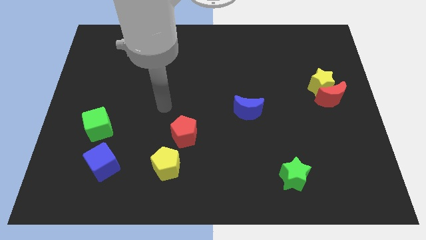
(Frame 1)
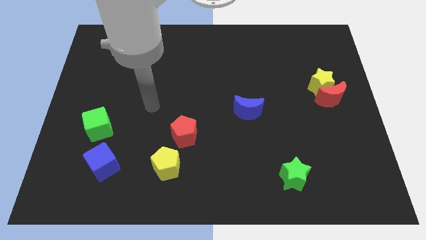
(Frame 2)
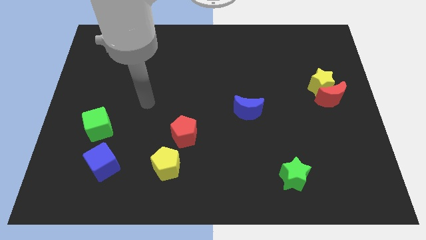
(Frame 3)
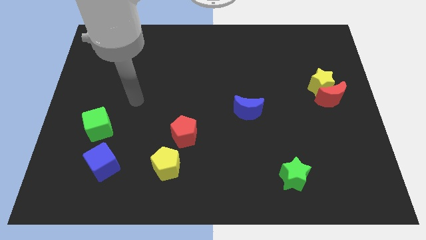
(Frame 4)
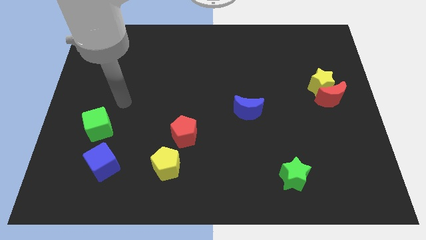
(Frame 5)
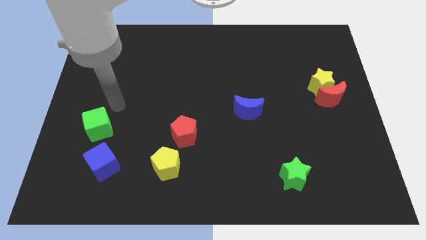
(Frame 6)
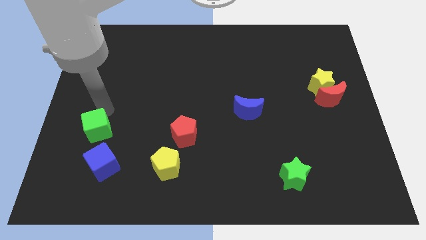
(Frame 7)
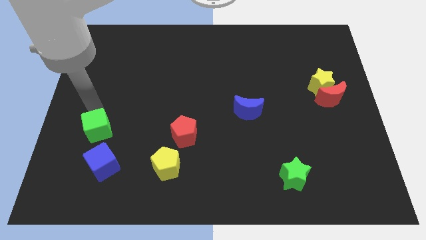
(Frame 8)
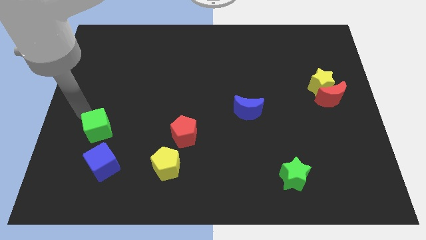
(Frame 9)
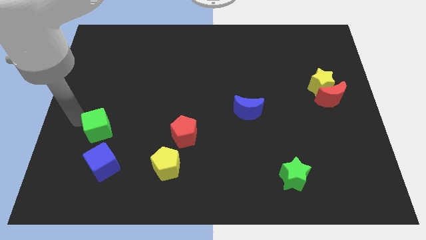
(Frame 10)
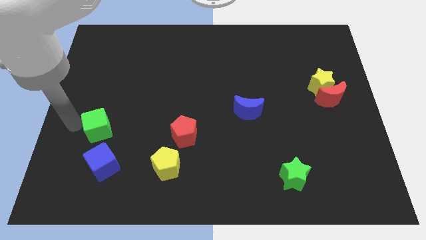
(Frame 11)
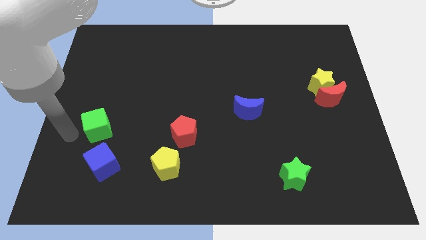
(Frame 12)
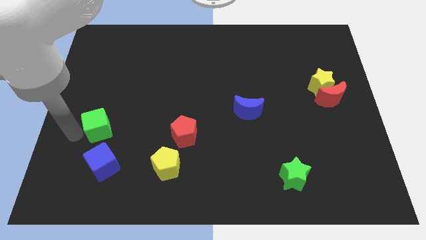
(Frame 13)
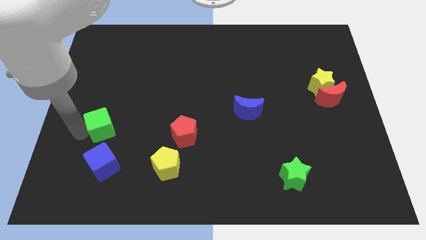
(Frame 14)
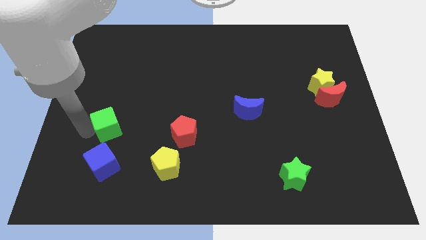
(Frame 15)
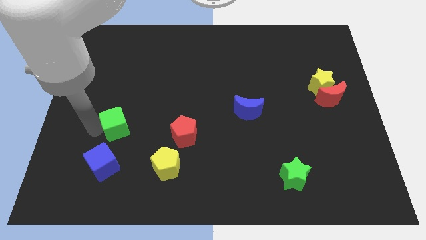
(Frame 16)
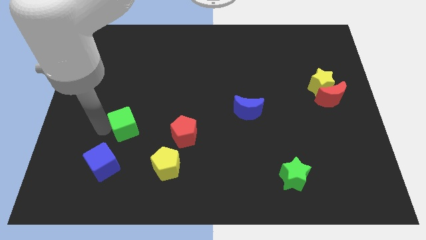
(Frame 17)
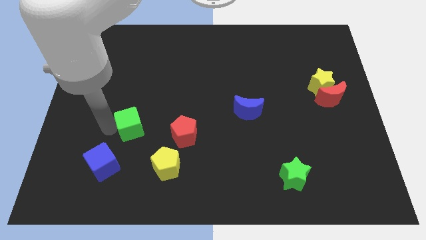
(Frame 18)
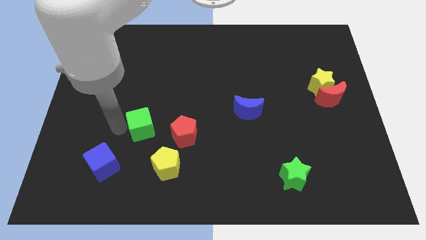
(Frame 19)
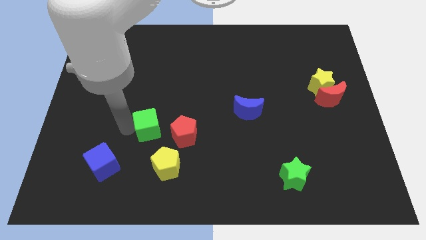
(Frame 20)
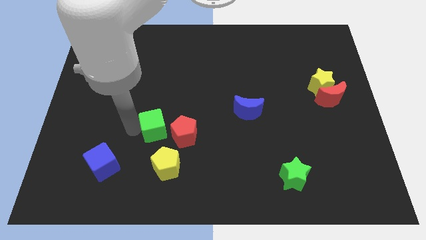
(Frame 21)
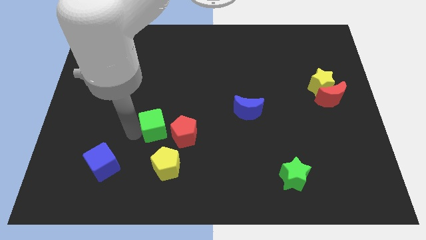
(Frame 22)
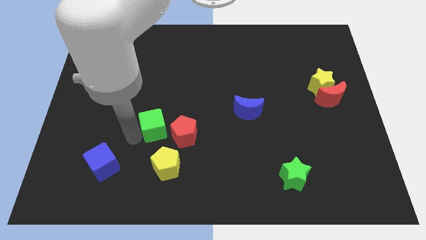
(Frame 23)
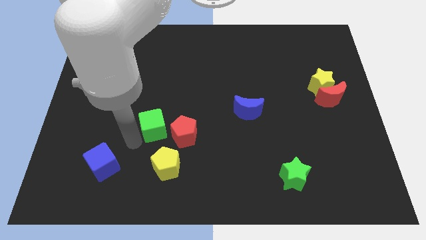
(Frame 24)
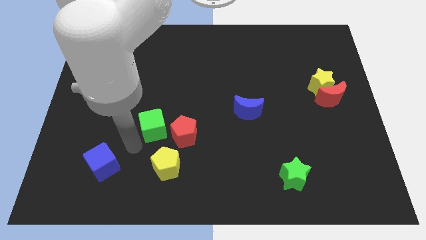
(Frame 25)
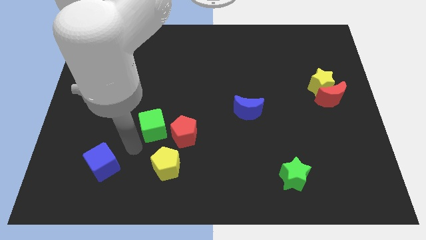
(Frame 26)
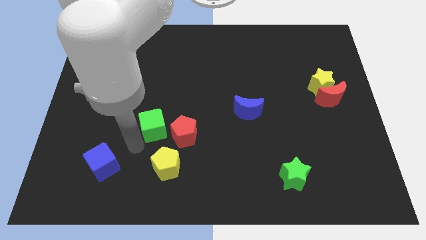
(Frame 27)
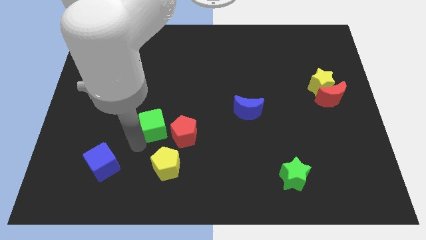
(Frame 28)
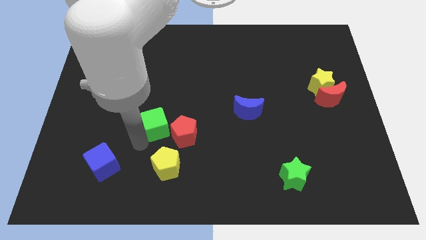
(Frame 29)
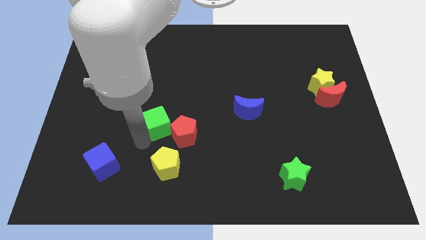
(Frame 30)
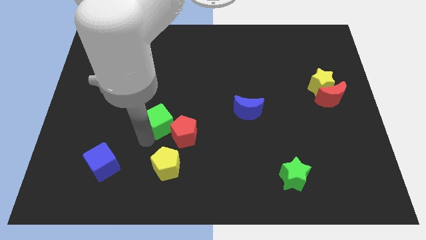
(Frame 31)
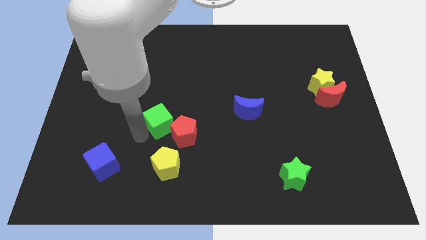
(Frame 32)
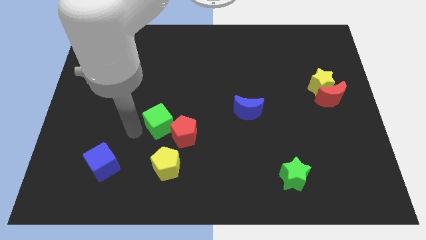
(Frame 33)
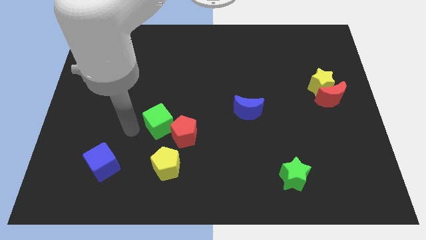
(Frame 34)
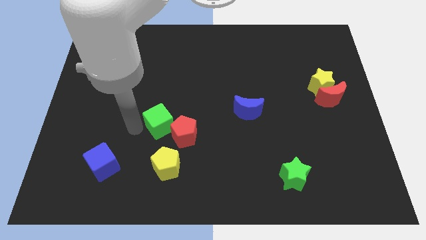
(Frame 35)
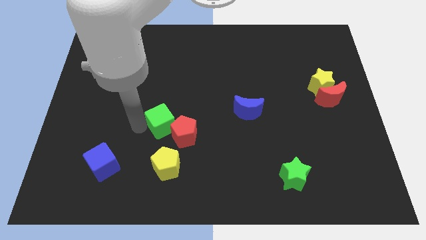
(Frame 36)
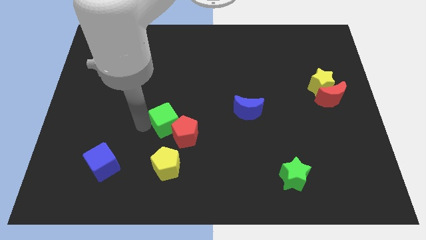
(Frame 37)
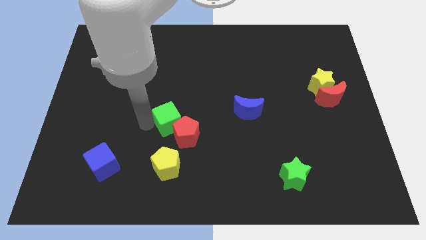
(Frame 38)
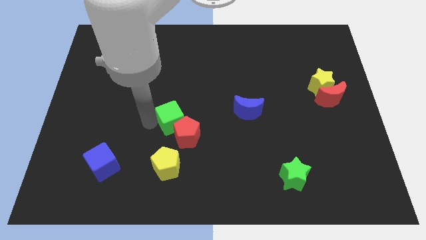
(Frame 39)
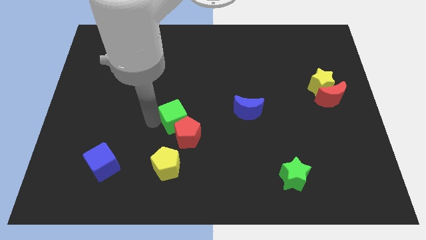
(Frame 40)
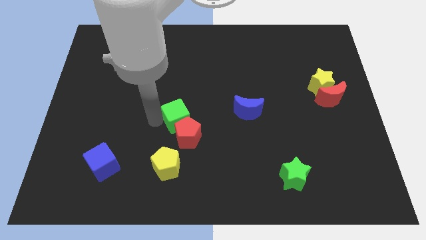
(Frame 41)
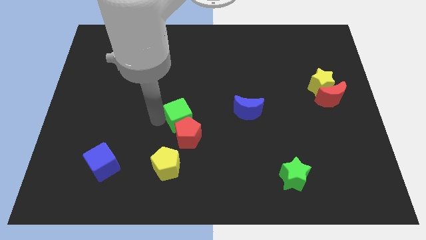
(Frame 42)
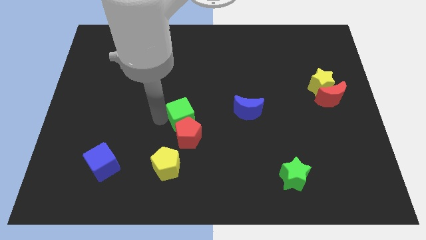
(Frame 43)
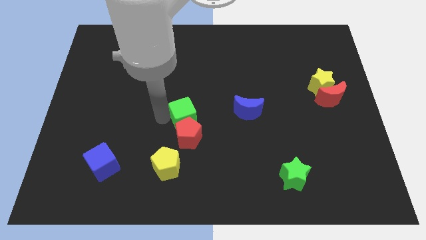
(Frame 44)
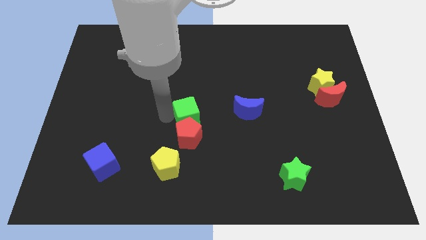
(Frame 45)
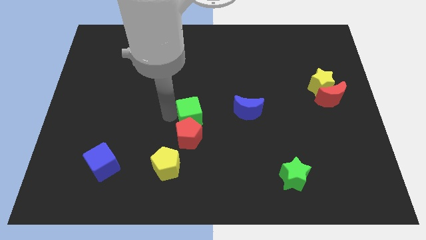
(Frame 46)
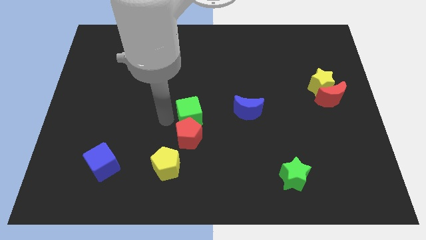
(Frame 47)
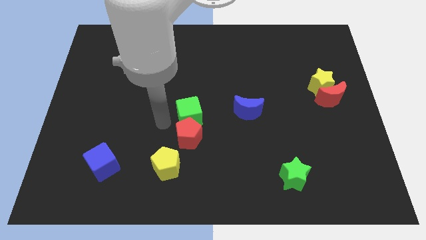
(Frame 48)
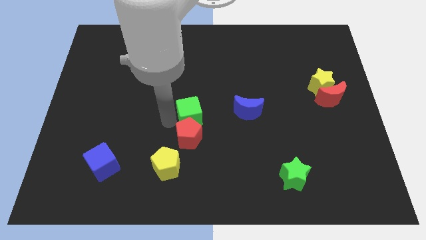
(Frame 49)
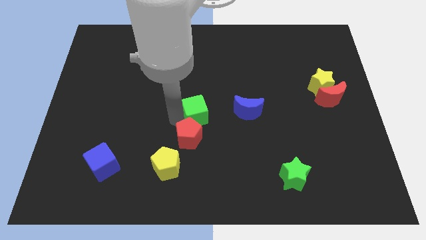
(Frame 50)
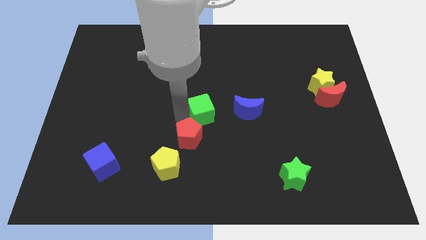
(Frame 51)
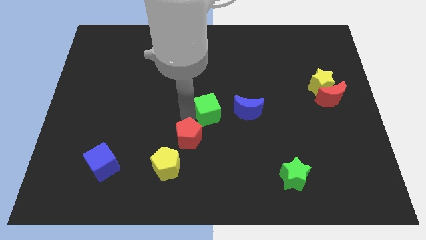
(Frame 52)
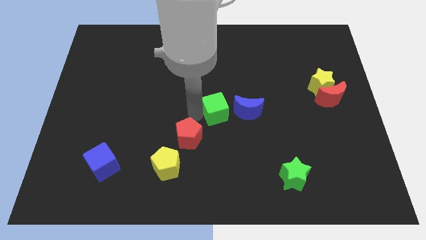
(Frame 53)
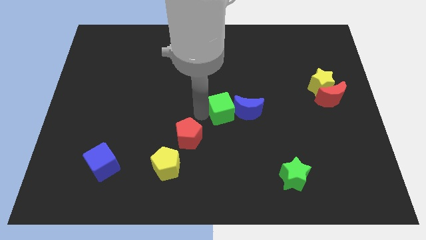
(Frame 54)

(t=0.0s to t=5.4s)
slide the green cube close to the blue moon

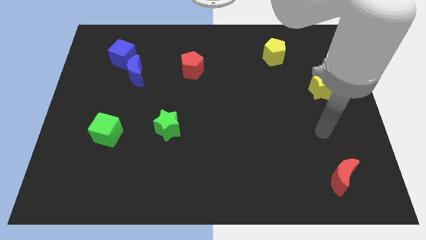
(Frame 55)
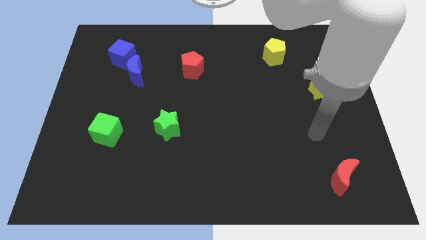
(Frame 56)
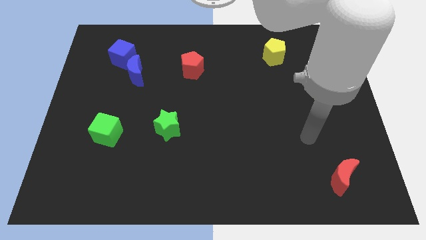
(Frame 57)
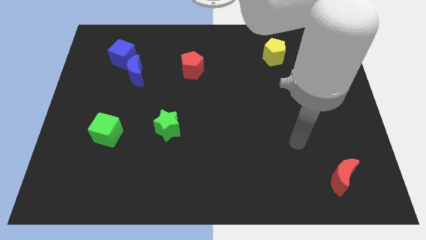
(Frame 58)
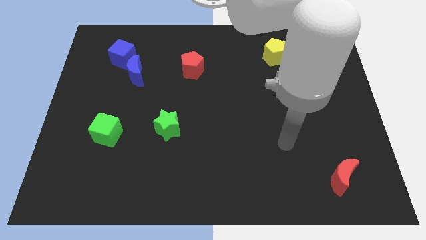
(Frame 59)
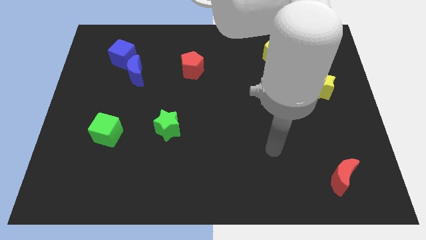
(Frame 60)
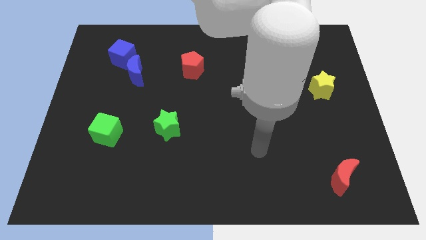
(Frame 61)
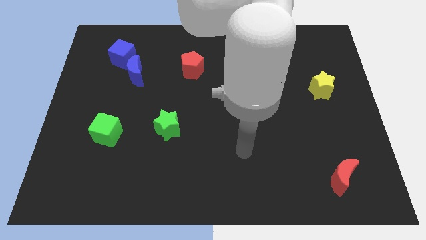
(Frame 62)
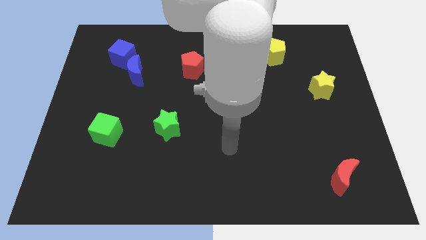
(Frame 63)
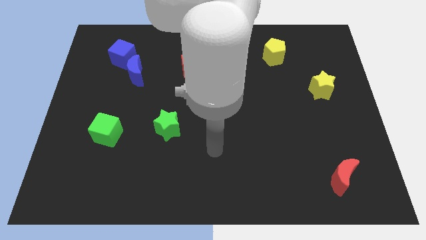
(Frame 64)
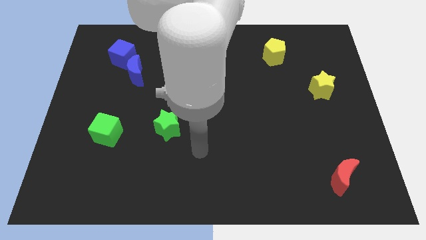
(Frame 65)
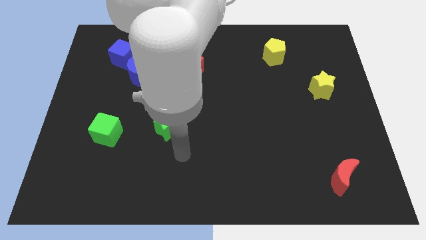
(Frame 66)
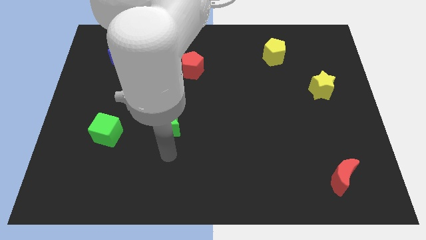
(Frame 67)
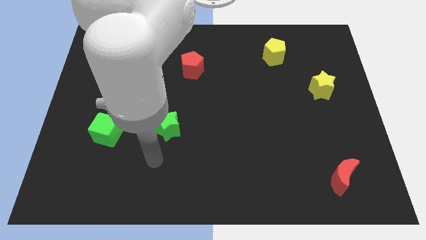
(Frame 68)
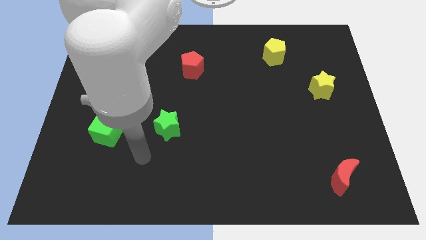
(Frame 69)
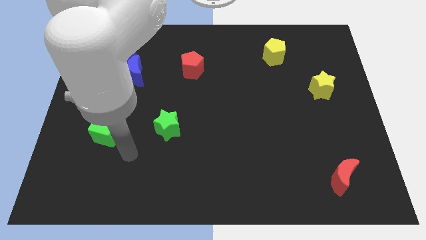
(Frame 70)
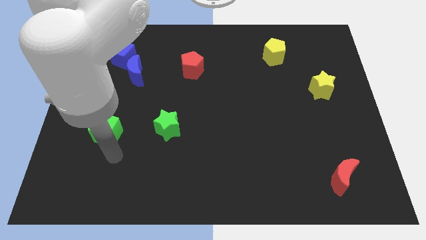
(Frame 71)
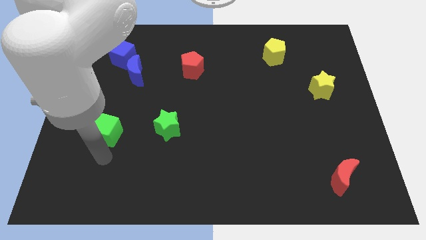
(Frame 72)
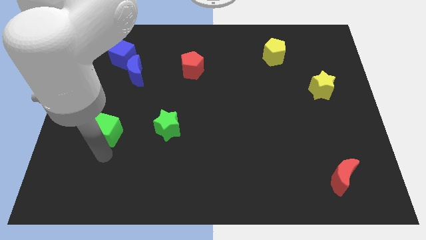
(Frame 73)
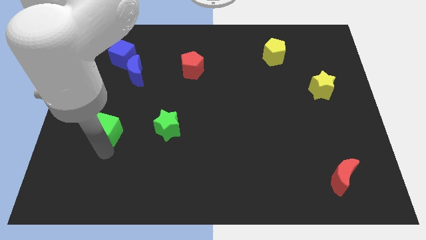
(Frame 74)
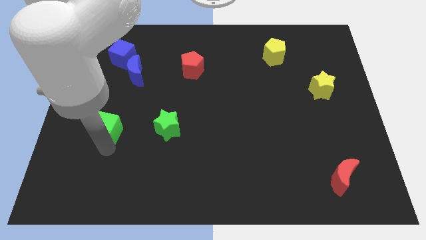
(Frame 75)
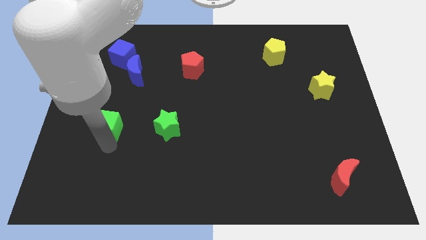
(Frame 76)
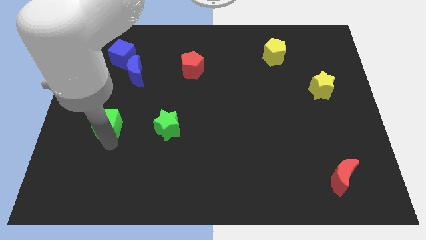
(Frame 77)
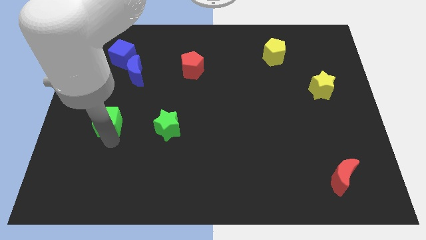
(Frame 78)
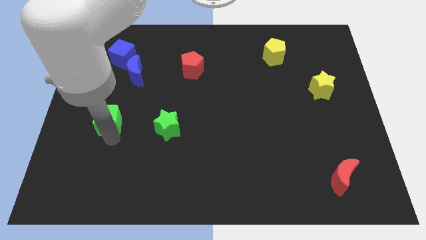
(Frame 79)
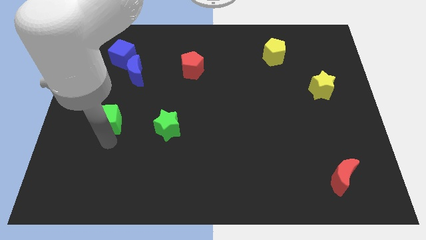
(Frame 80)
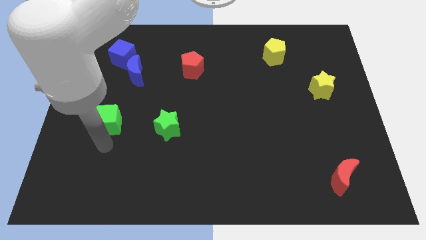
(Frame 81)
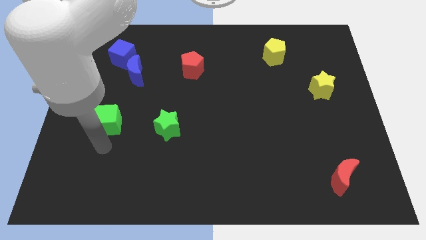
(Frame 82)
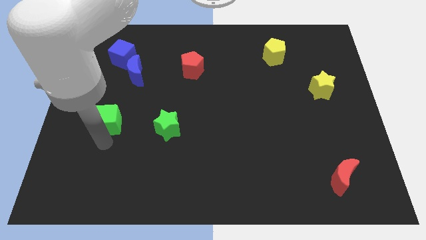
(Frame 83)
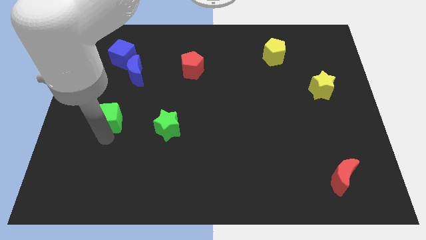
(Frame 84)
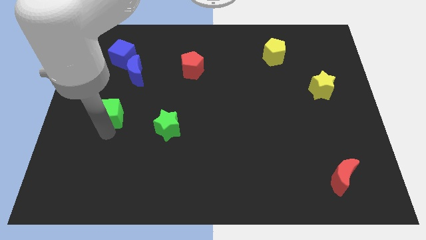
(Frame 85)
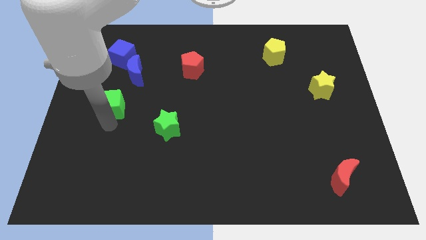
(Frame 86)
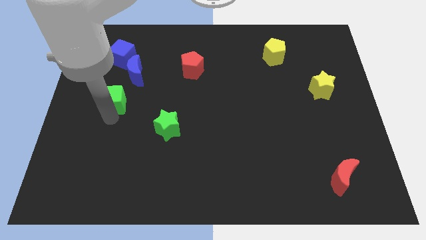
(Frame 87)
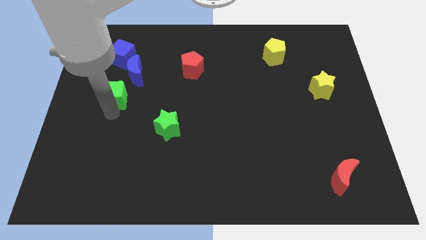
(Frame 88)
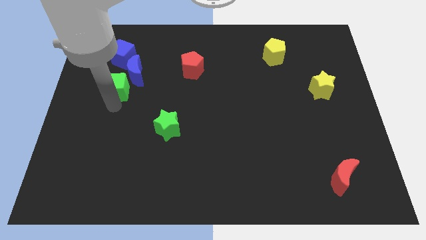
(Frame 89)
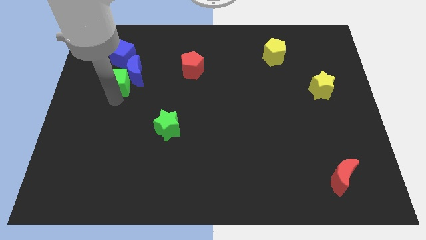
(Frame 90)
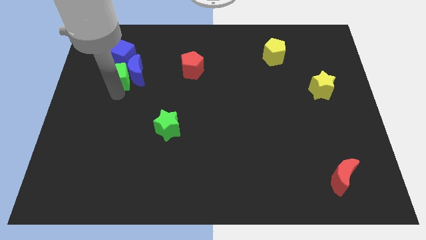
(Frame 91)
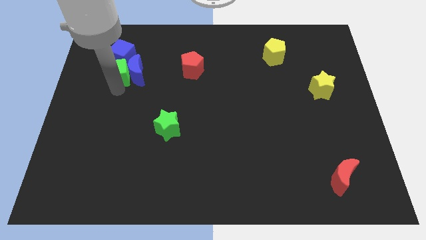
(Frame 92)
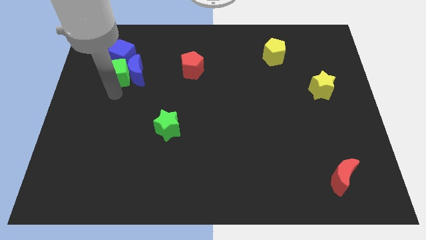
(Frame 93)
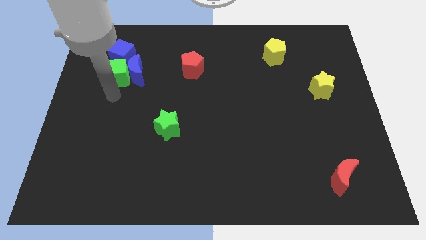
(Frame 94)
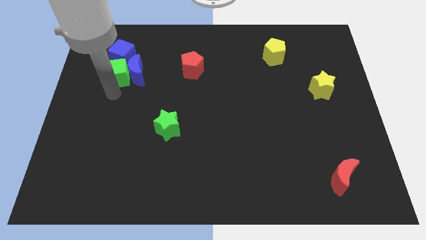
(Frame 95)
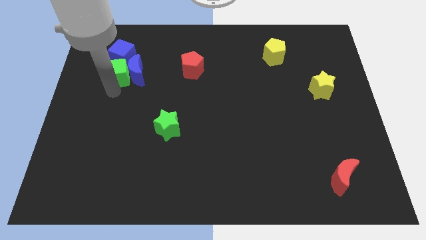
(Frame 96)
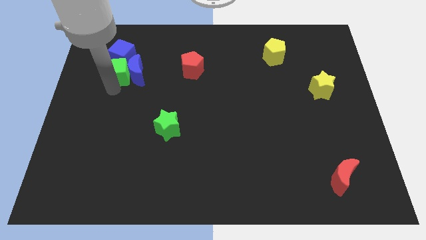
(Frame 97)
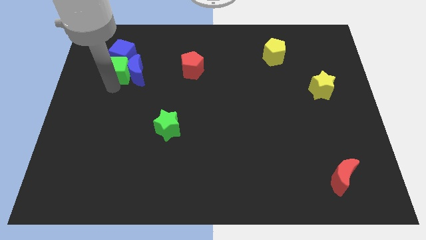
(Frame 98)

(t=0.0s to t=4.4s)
slide the green cube to the blue cube
